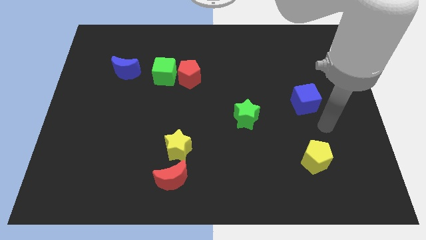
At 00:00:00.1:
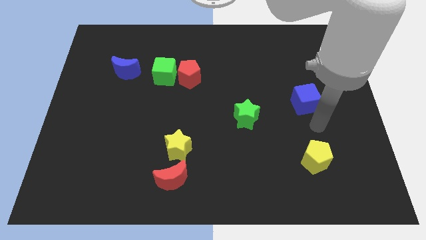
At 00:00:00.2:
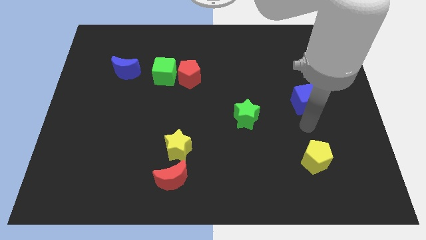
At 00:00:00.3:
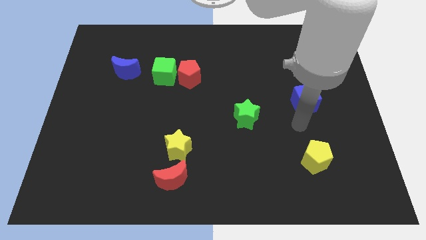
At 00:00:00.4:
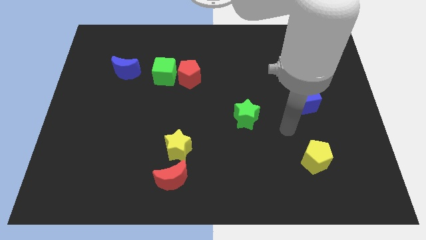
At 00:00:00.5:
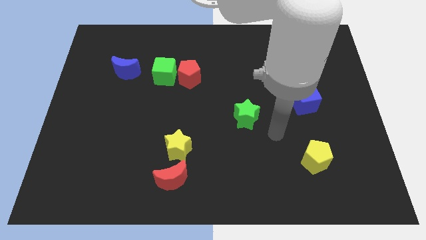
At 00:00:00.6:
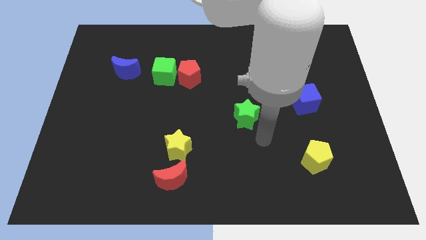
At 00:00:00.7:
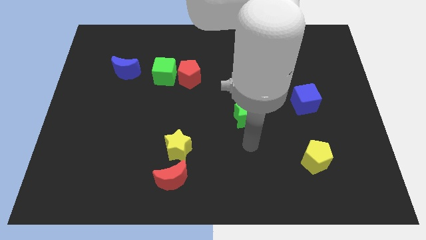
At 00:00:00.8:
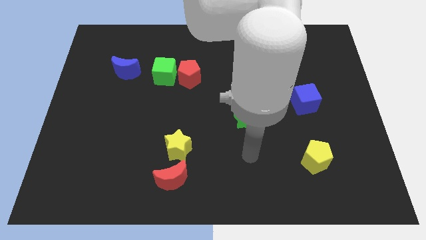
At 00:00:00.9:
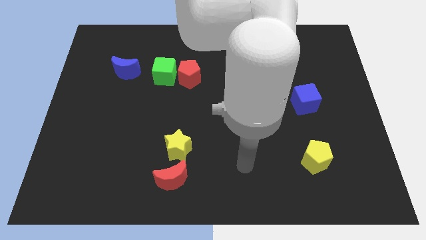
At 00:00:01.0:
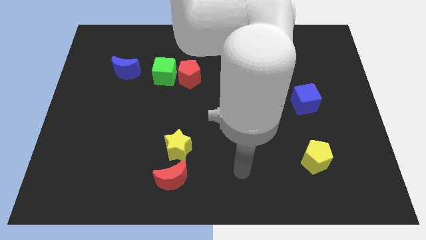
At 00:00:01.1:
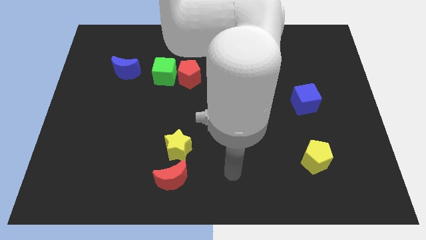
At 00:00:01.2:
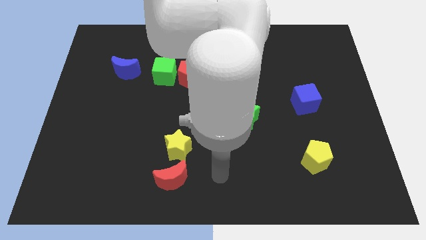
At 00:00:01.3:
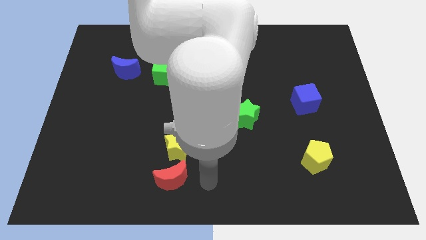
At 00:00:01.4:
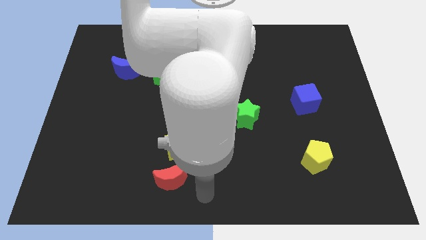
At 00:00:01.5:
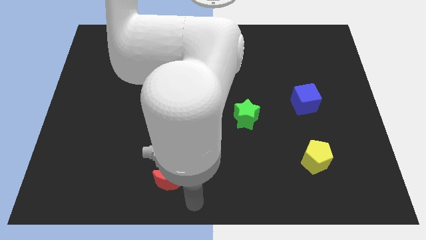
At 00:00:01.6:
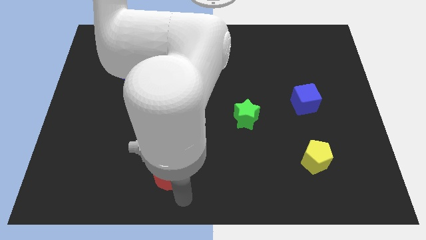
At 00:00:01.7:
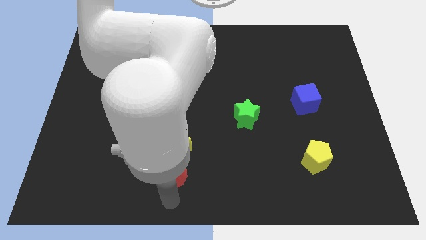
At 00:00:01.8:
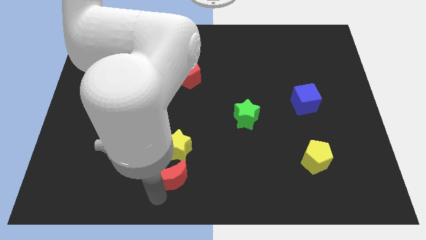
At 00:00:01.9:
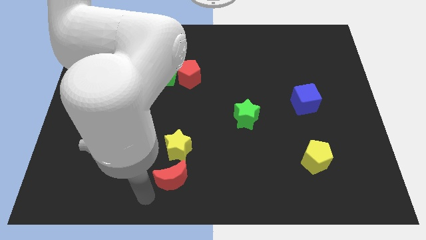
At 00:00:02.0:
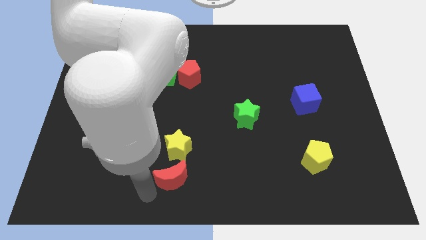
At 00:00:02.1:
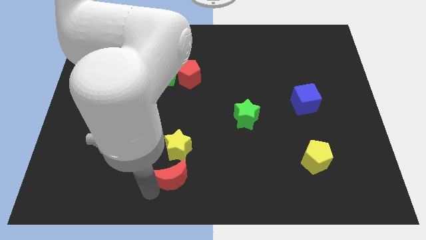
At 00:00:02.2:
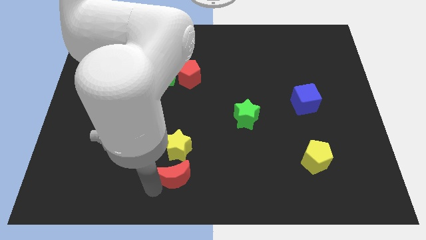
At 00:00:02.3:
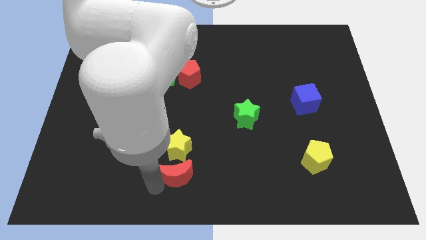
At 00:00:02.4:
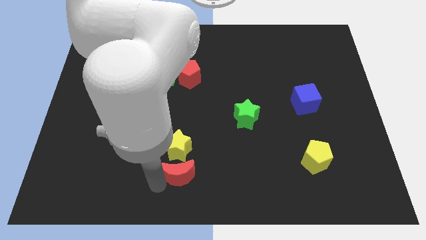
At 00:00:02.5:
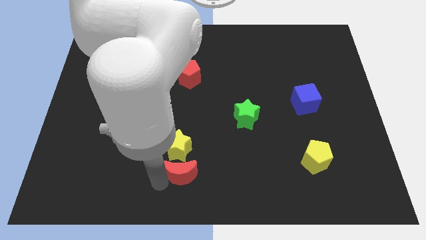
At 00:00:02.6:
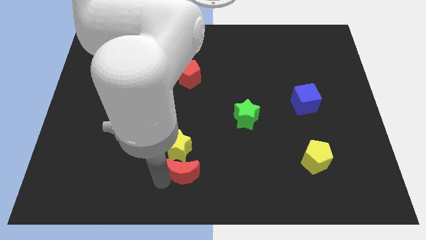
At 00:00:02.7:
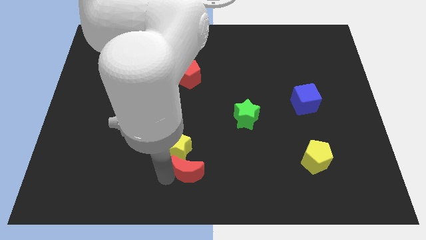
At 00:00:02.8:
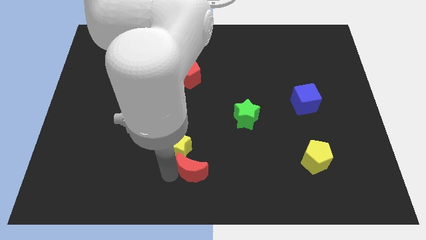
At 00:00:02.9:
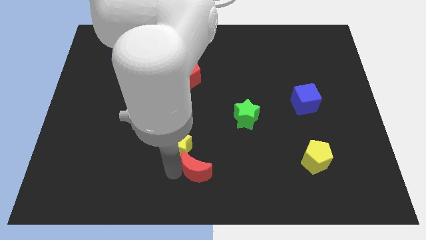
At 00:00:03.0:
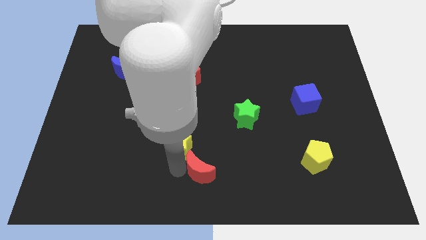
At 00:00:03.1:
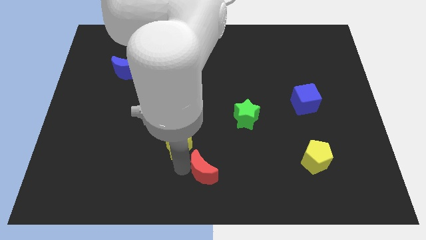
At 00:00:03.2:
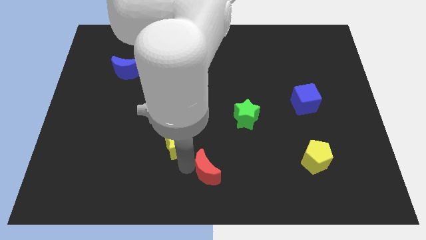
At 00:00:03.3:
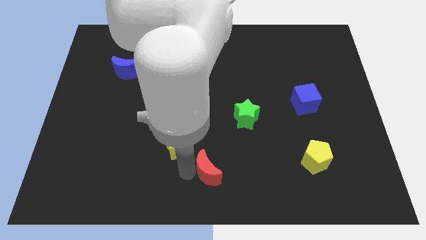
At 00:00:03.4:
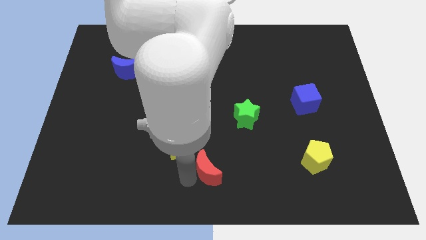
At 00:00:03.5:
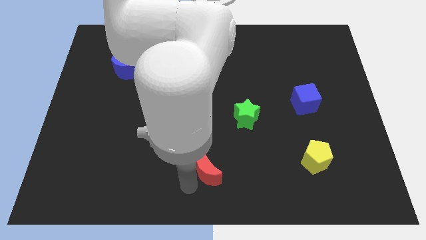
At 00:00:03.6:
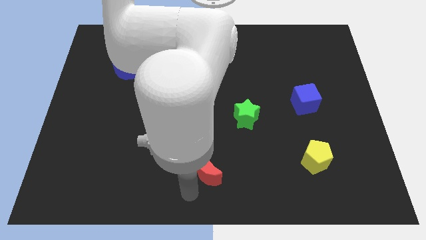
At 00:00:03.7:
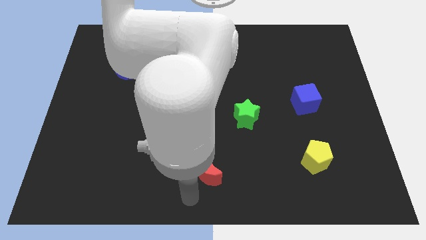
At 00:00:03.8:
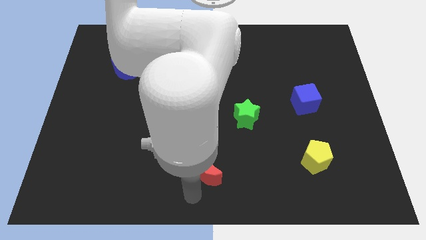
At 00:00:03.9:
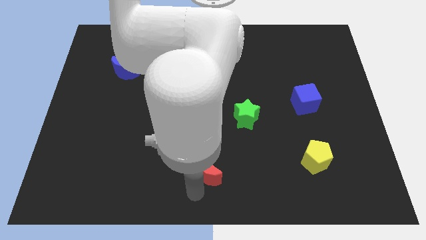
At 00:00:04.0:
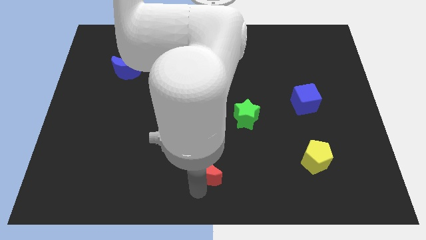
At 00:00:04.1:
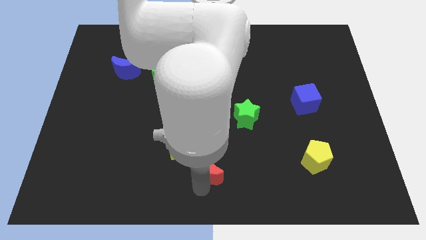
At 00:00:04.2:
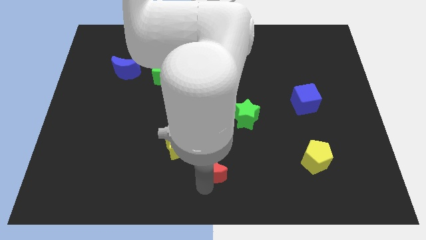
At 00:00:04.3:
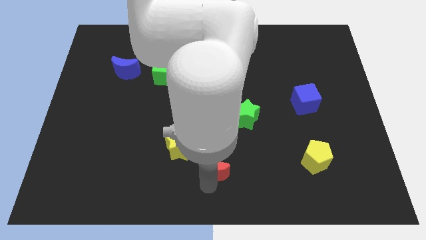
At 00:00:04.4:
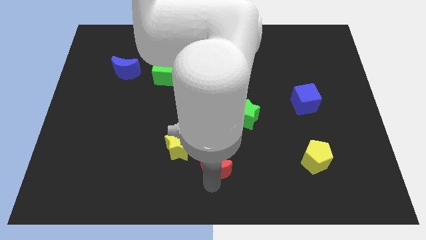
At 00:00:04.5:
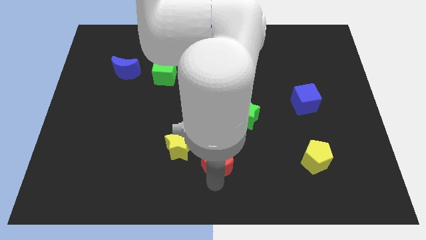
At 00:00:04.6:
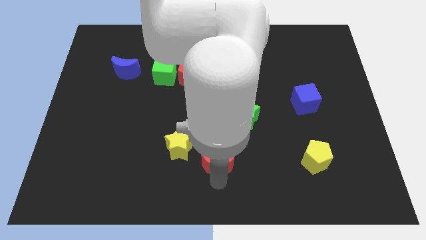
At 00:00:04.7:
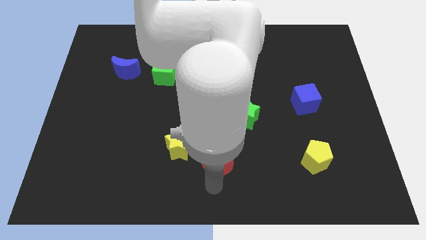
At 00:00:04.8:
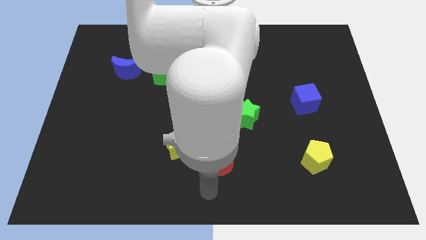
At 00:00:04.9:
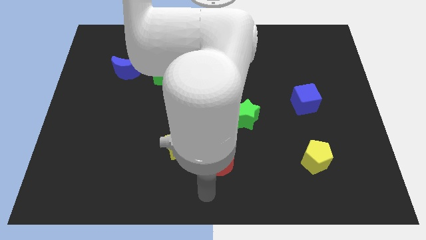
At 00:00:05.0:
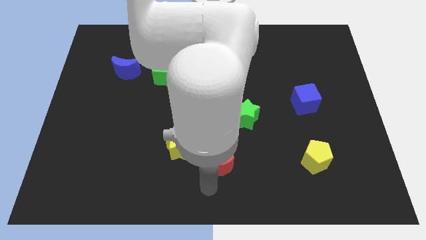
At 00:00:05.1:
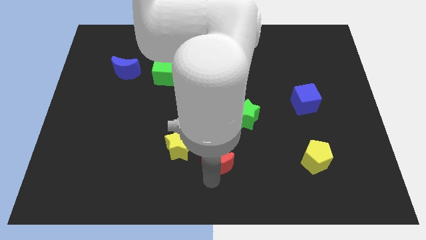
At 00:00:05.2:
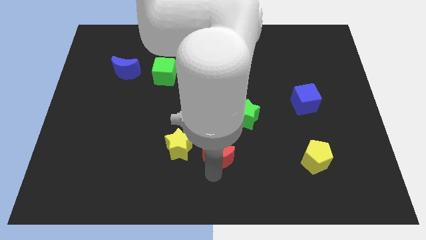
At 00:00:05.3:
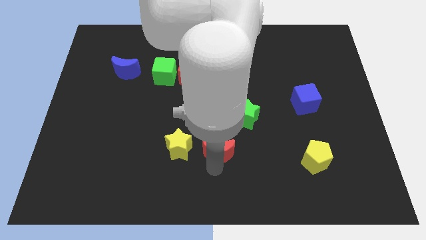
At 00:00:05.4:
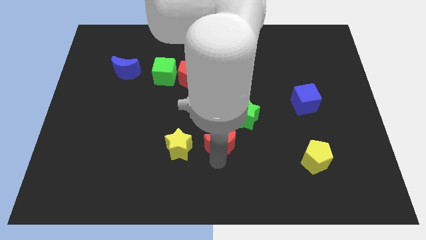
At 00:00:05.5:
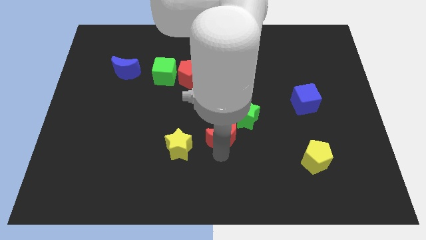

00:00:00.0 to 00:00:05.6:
put the red moon to the center
